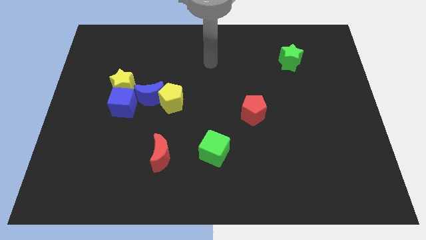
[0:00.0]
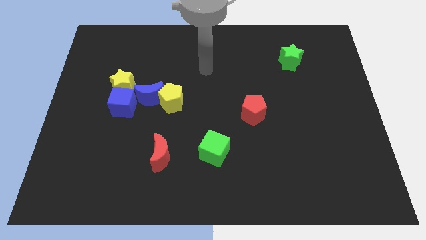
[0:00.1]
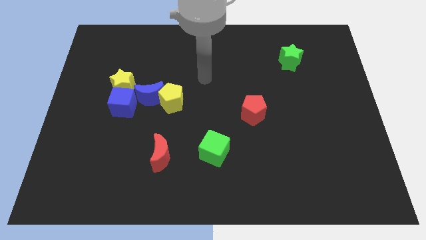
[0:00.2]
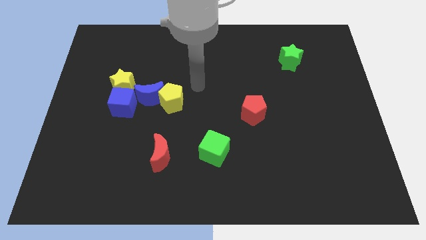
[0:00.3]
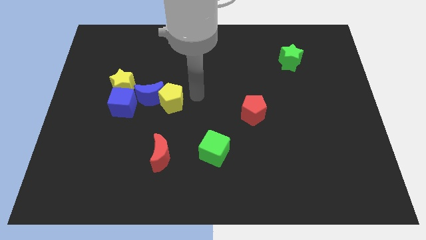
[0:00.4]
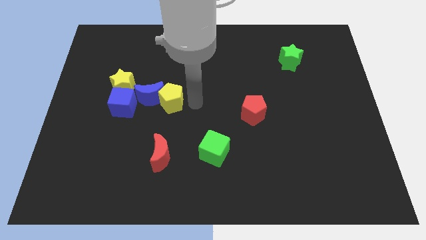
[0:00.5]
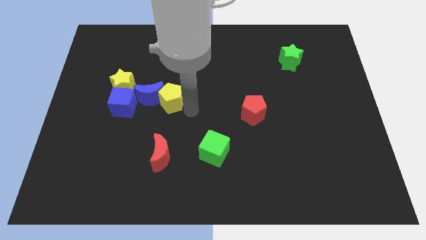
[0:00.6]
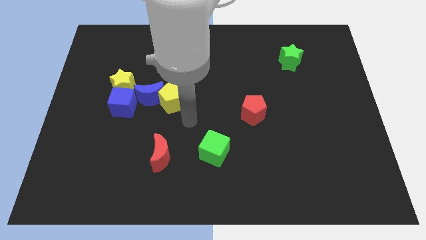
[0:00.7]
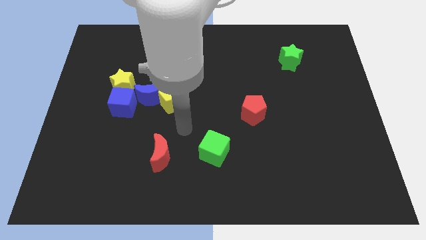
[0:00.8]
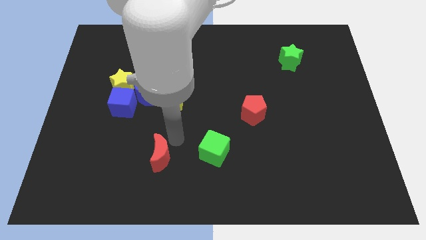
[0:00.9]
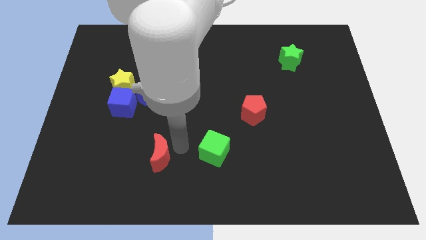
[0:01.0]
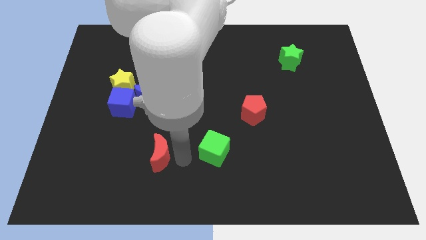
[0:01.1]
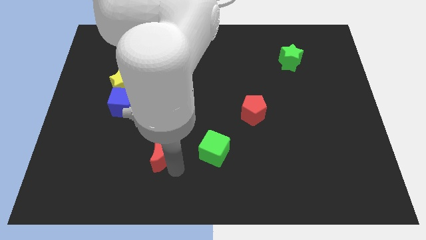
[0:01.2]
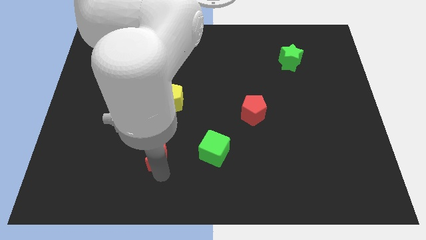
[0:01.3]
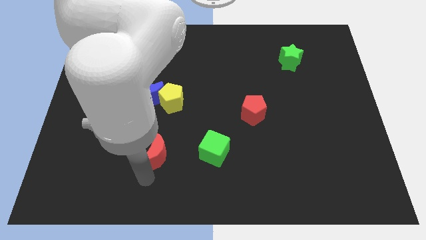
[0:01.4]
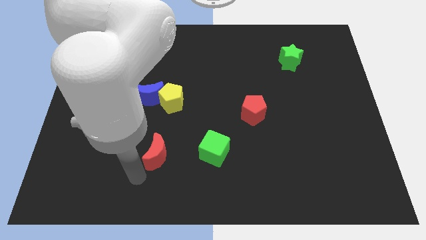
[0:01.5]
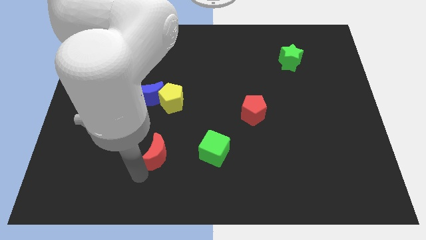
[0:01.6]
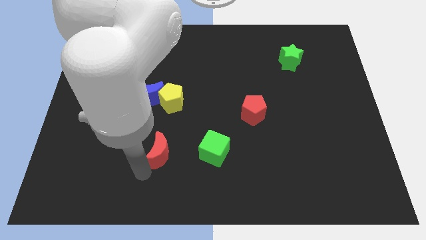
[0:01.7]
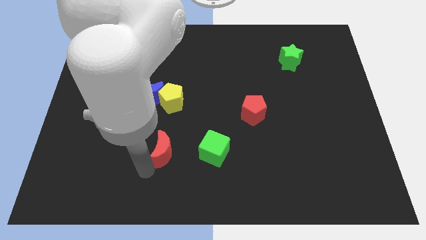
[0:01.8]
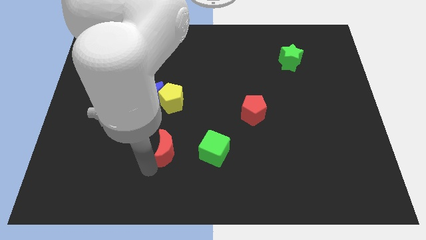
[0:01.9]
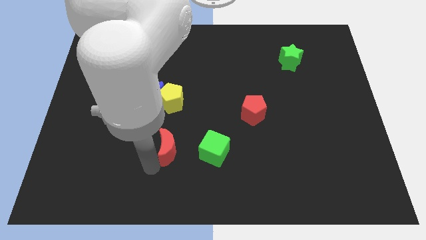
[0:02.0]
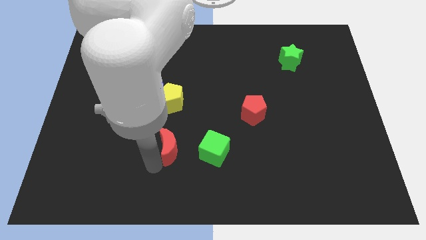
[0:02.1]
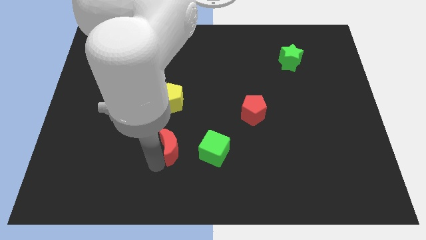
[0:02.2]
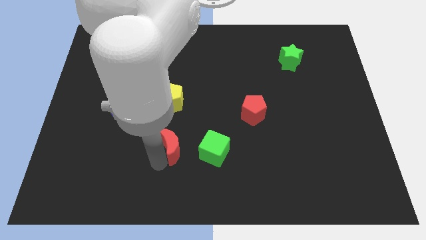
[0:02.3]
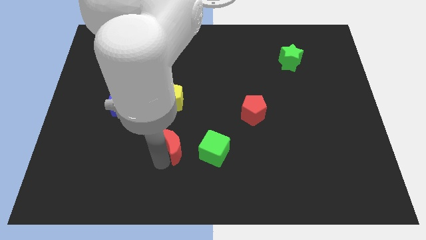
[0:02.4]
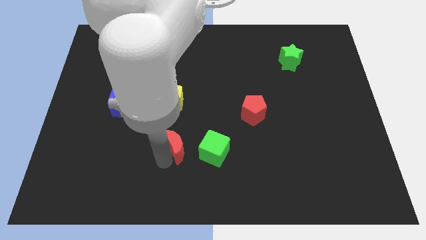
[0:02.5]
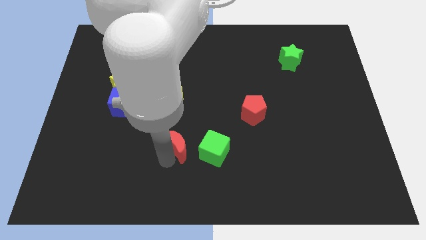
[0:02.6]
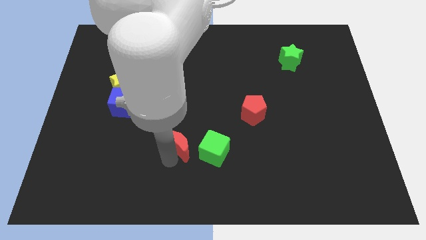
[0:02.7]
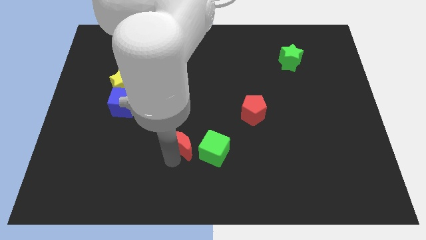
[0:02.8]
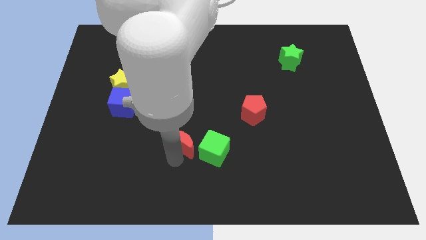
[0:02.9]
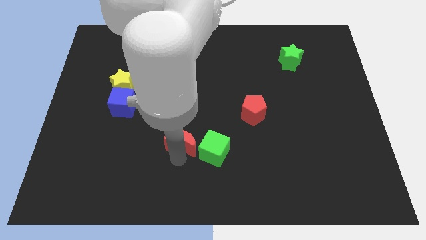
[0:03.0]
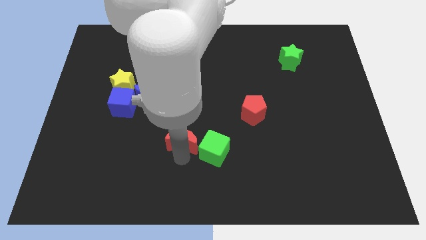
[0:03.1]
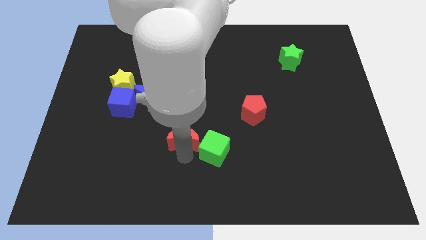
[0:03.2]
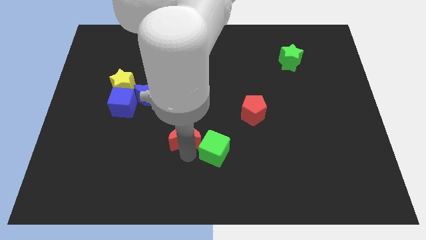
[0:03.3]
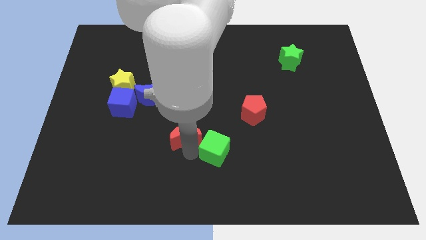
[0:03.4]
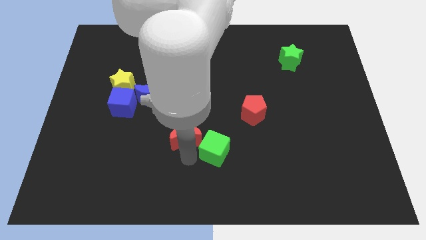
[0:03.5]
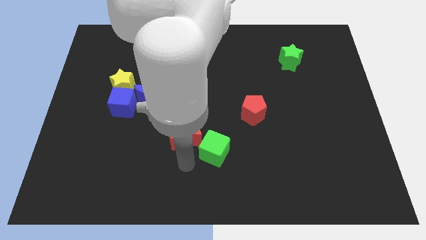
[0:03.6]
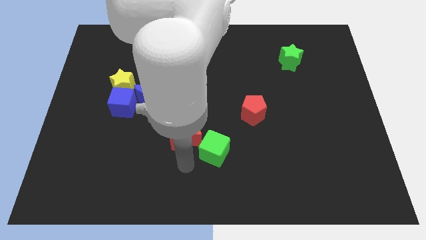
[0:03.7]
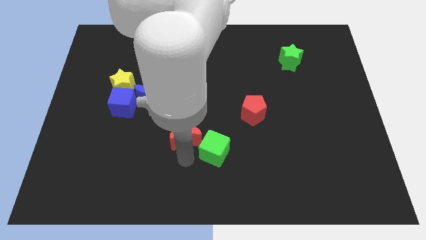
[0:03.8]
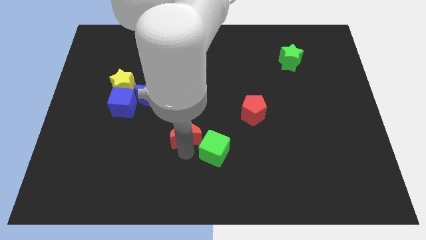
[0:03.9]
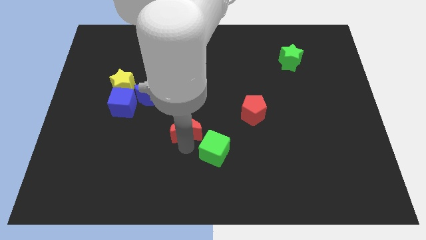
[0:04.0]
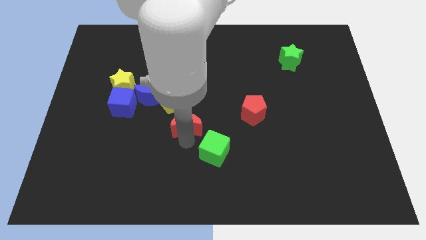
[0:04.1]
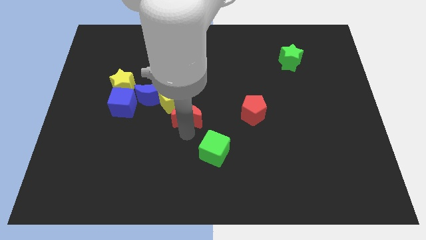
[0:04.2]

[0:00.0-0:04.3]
move the red moon a bit upwards

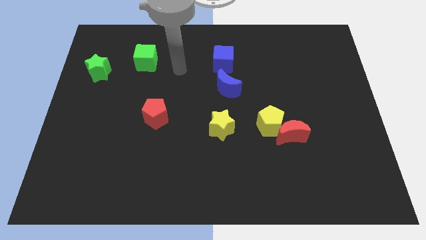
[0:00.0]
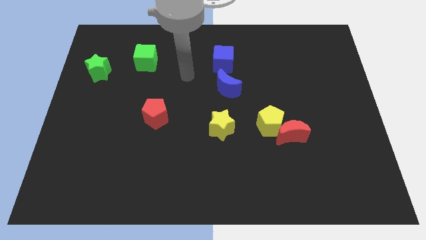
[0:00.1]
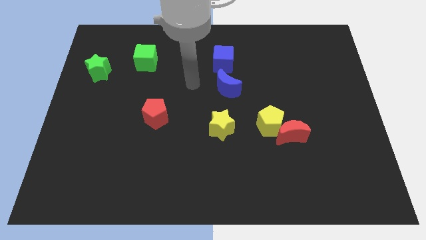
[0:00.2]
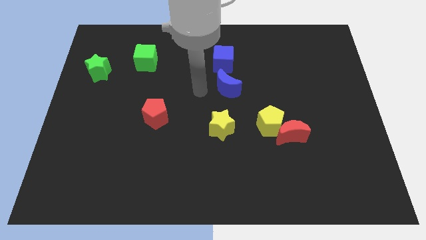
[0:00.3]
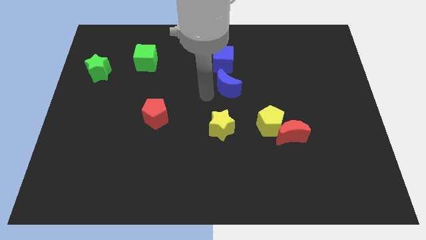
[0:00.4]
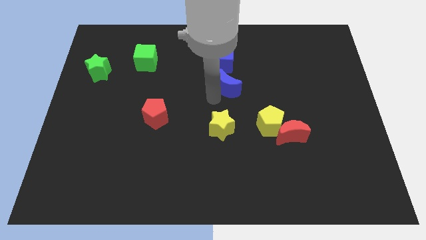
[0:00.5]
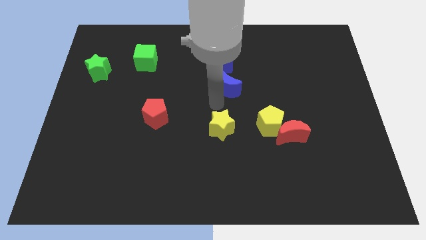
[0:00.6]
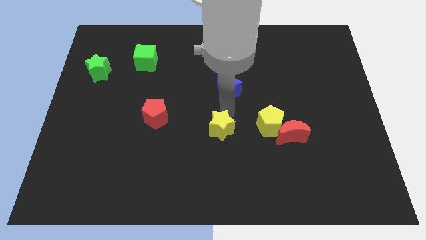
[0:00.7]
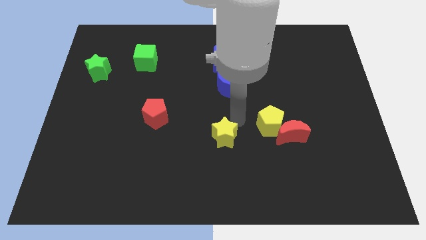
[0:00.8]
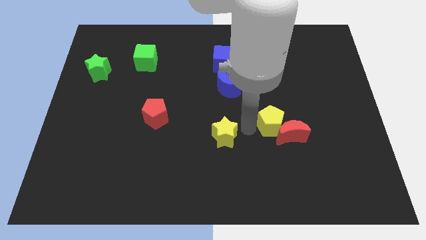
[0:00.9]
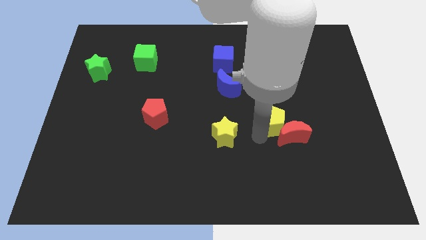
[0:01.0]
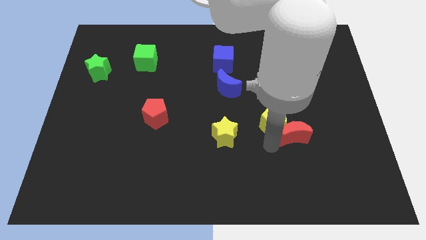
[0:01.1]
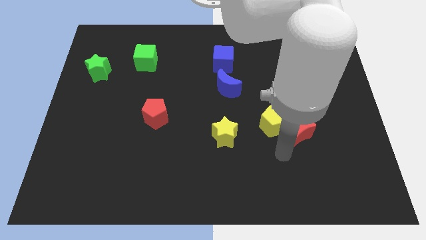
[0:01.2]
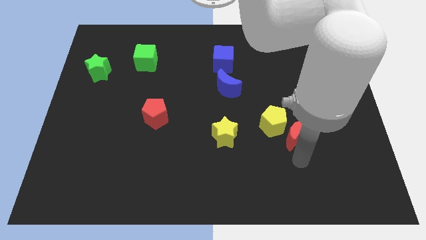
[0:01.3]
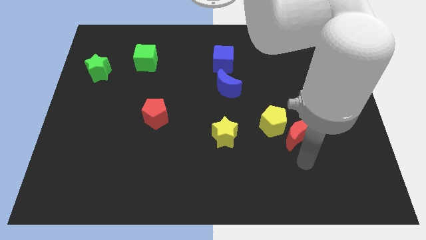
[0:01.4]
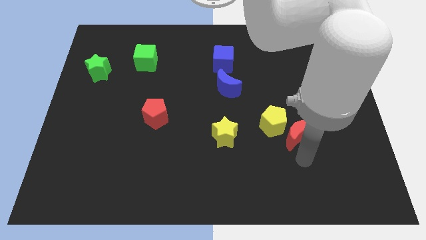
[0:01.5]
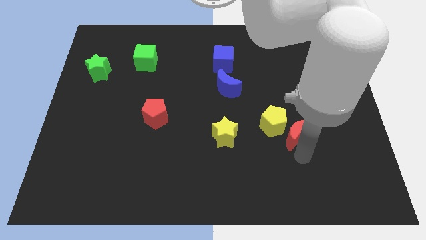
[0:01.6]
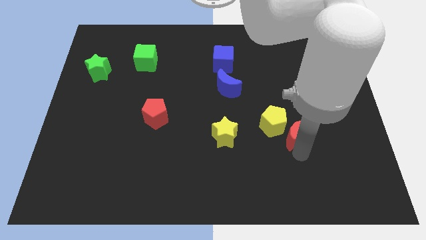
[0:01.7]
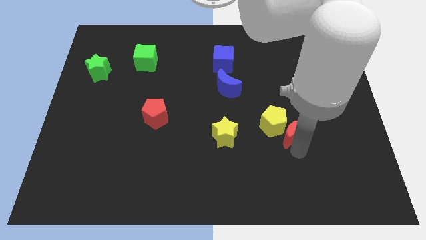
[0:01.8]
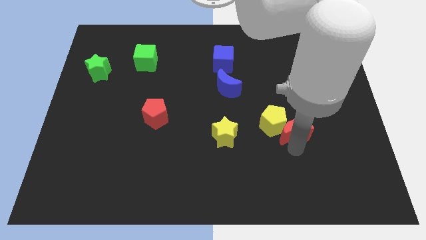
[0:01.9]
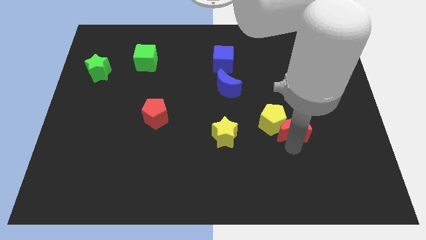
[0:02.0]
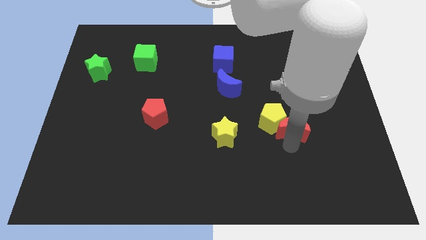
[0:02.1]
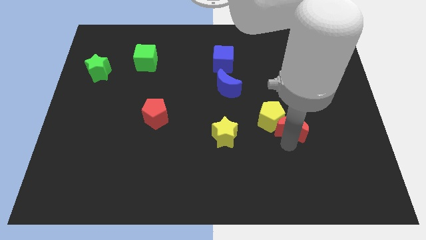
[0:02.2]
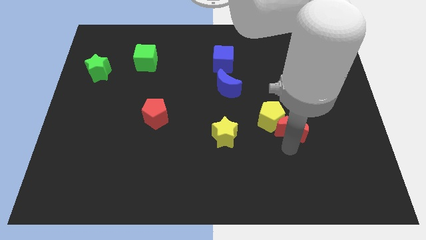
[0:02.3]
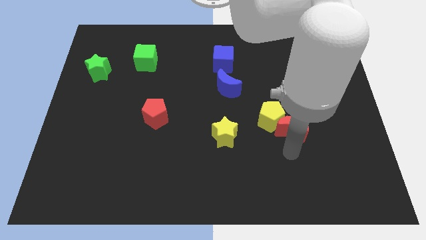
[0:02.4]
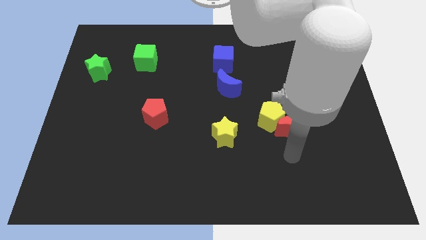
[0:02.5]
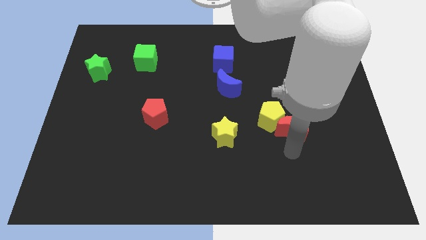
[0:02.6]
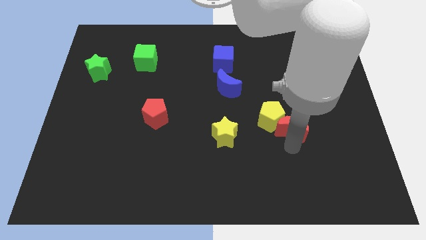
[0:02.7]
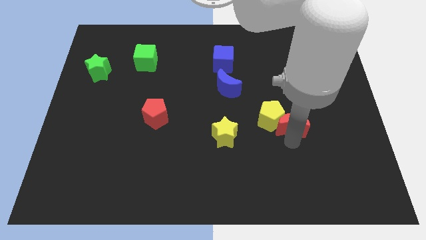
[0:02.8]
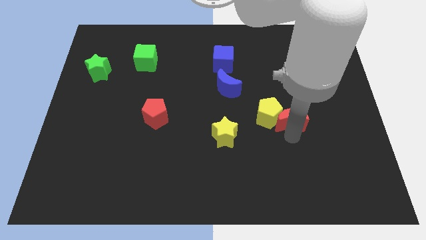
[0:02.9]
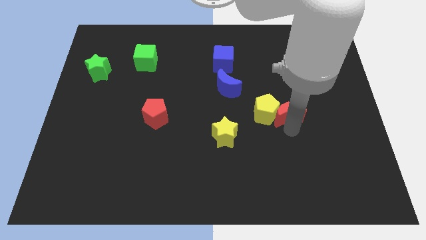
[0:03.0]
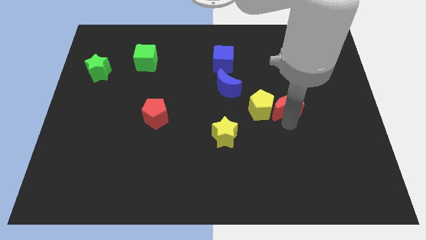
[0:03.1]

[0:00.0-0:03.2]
move the red moon upwards slightly

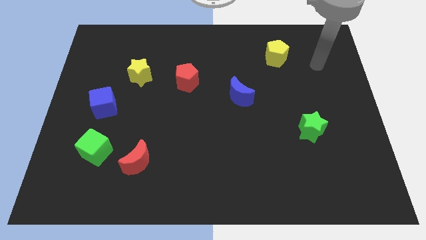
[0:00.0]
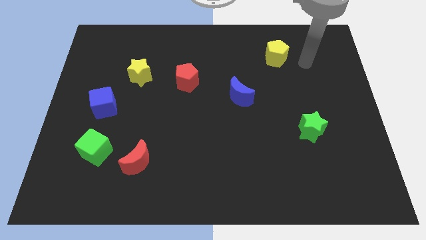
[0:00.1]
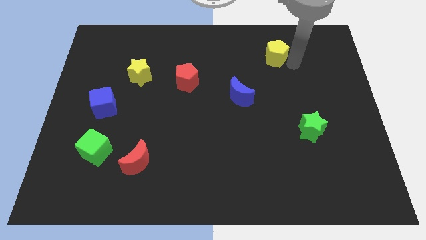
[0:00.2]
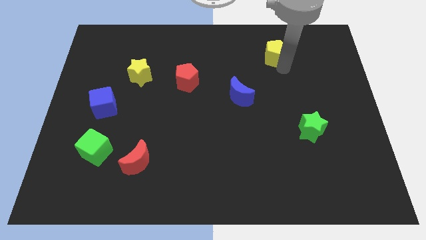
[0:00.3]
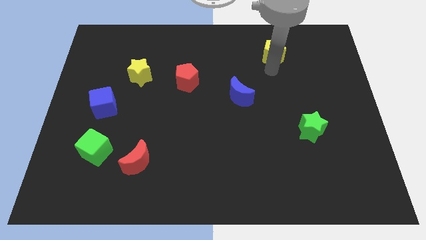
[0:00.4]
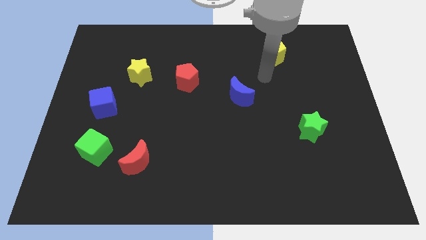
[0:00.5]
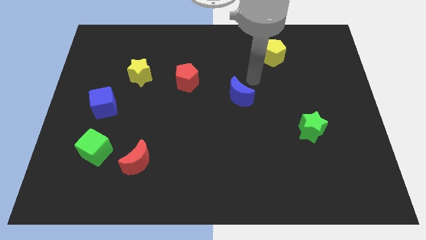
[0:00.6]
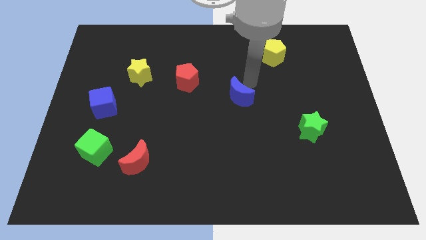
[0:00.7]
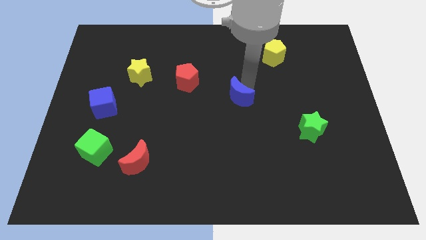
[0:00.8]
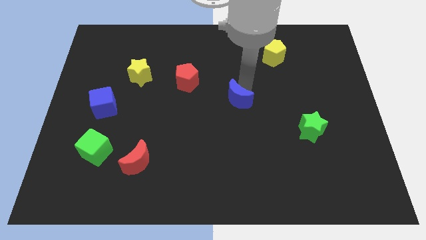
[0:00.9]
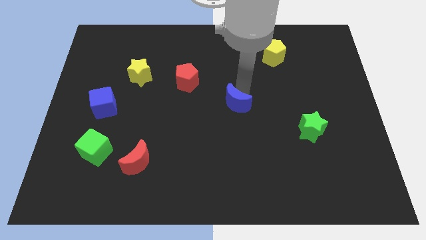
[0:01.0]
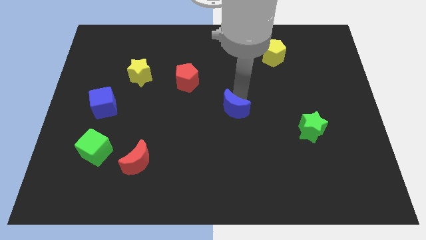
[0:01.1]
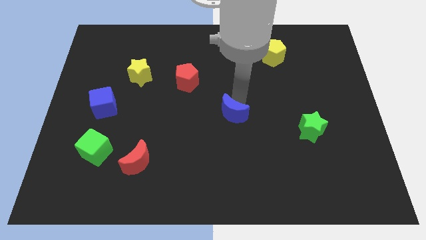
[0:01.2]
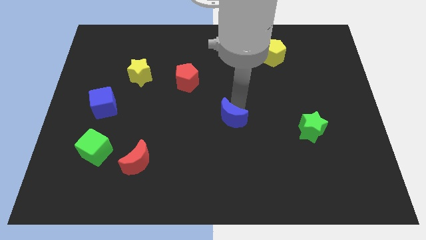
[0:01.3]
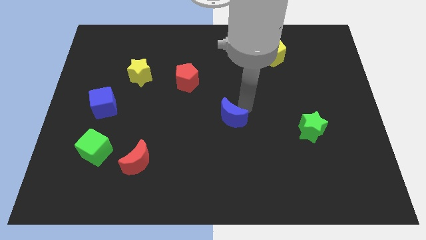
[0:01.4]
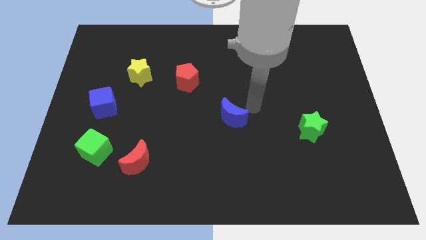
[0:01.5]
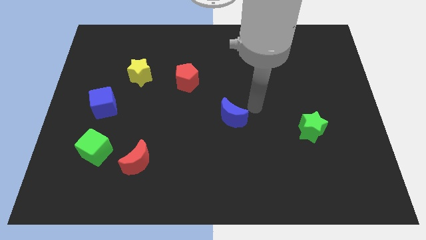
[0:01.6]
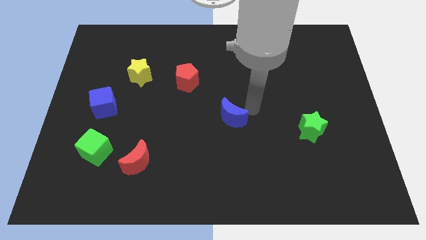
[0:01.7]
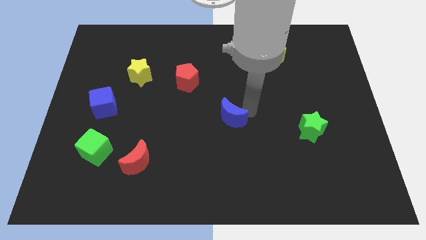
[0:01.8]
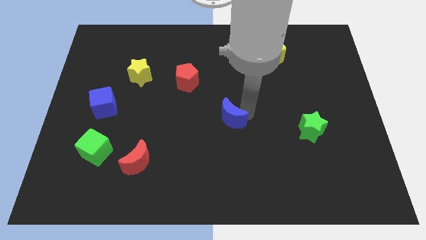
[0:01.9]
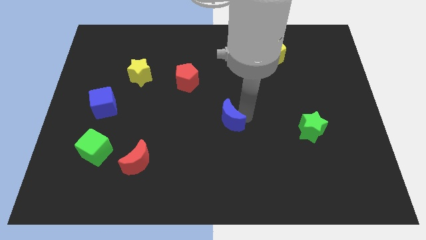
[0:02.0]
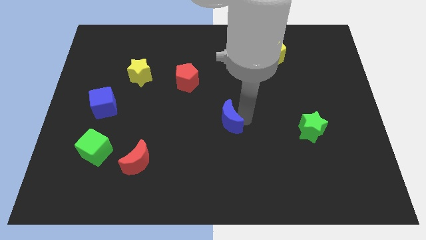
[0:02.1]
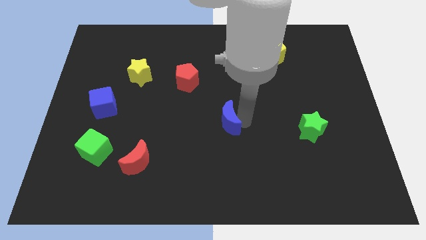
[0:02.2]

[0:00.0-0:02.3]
move the blue moon diagonally downwards and left a bit
